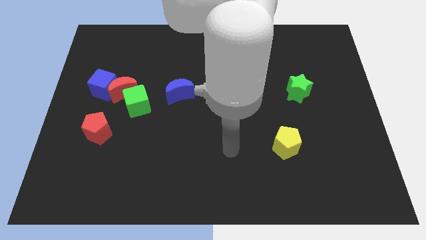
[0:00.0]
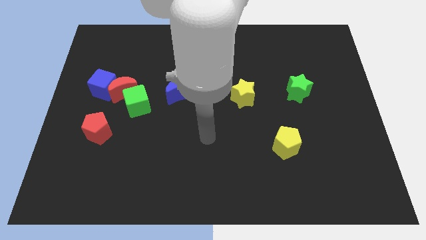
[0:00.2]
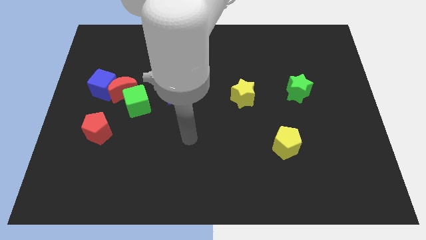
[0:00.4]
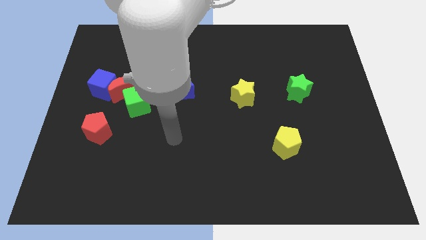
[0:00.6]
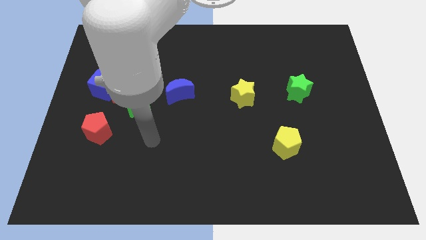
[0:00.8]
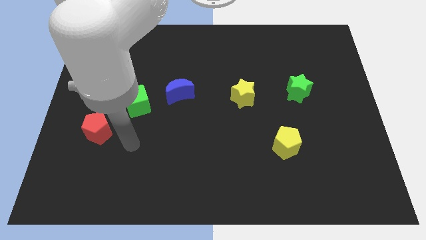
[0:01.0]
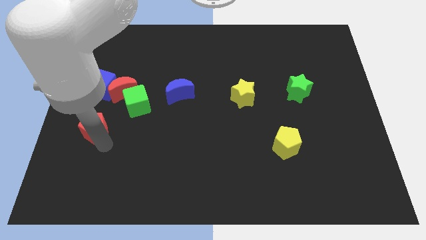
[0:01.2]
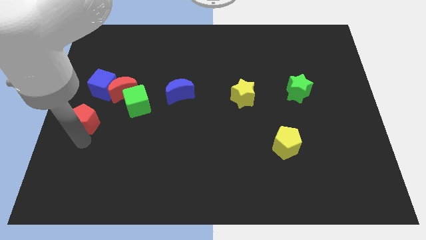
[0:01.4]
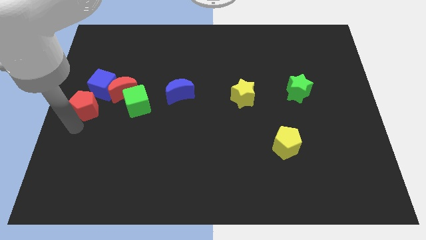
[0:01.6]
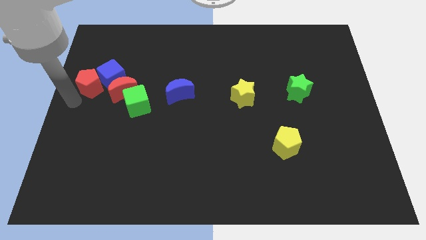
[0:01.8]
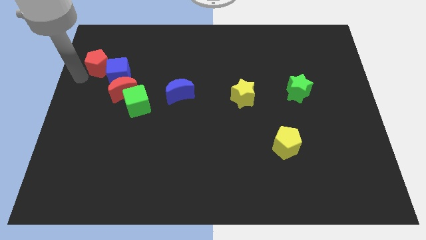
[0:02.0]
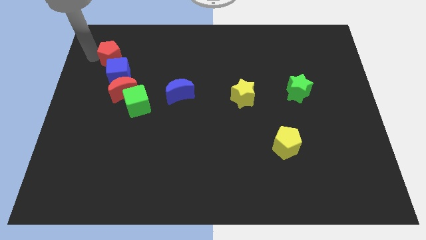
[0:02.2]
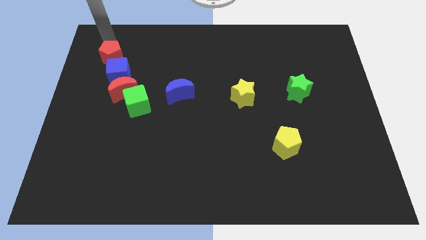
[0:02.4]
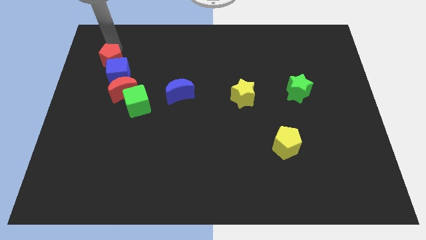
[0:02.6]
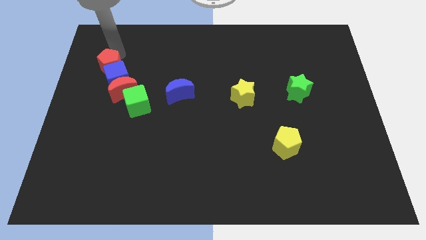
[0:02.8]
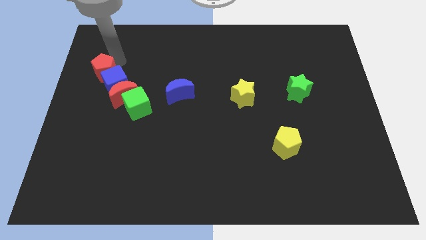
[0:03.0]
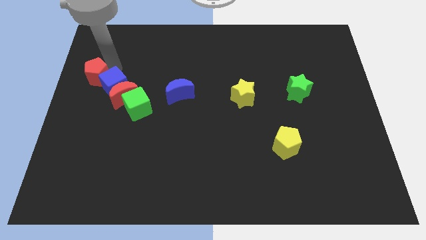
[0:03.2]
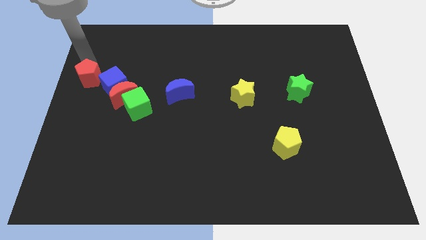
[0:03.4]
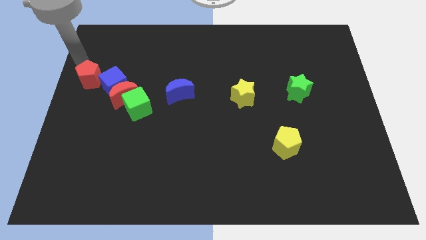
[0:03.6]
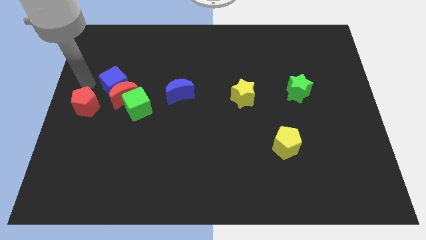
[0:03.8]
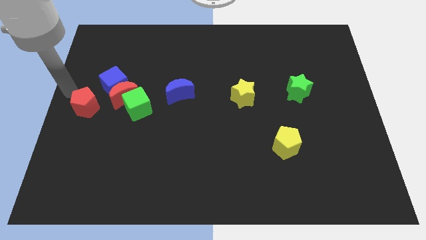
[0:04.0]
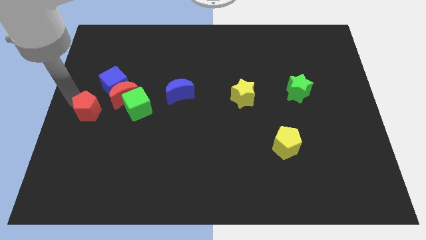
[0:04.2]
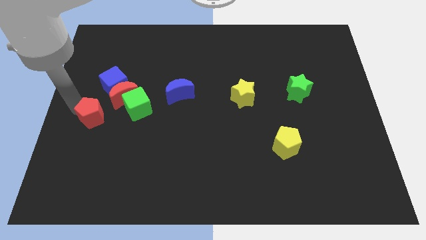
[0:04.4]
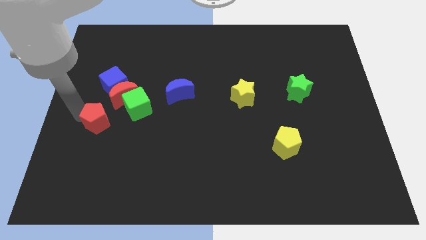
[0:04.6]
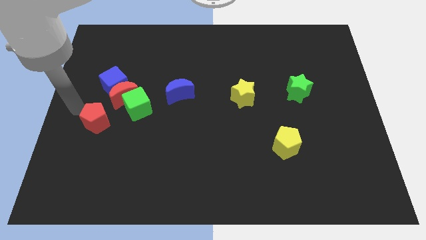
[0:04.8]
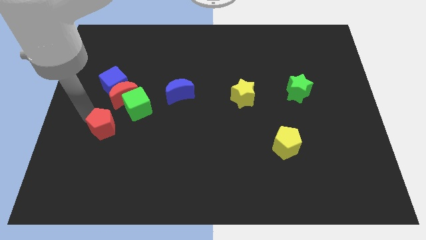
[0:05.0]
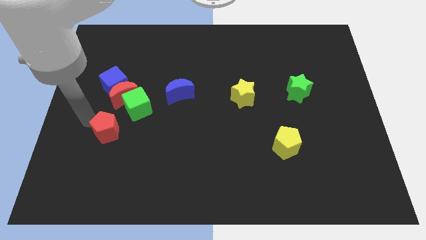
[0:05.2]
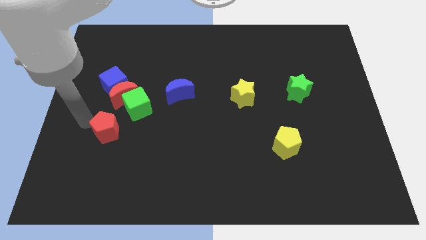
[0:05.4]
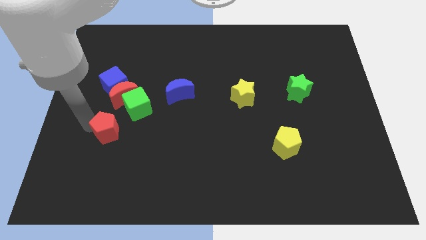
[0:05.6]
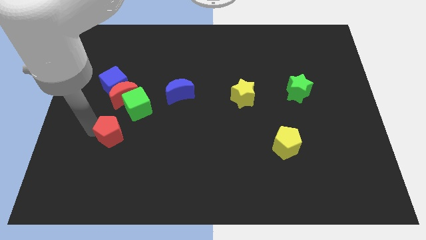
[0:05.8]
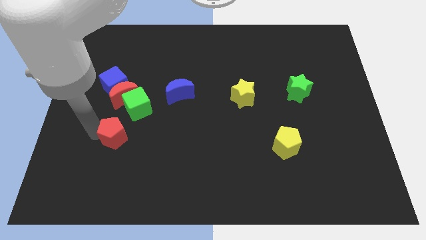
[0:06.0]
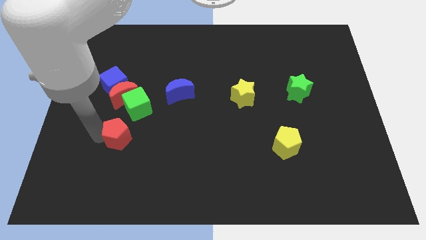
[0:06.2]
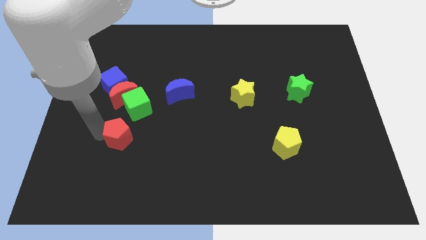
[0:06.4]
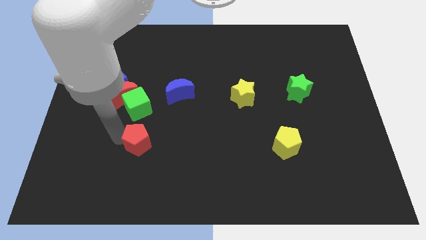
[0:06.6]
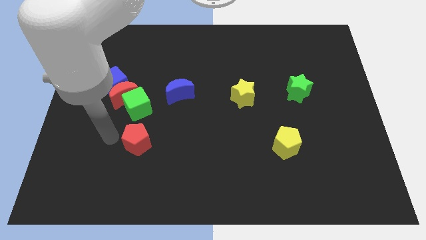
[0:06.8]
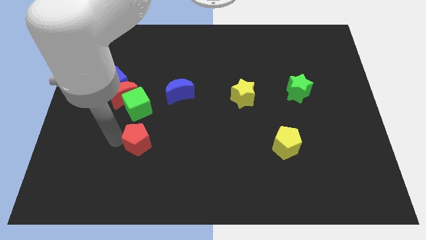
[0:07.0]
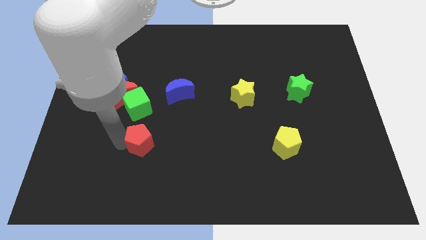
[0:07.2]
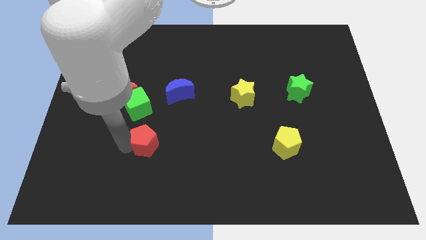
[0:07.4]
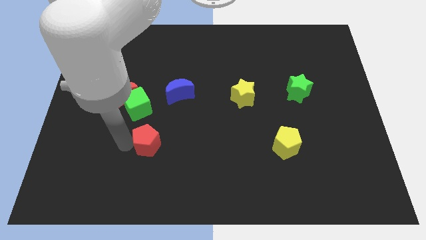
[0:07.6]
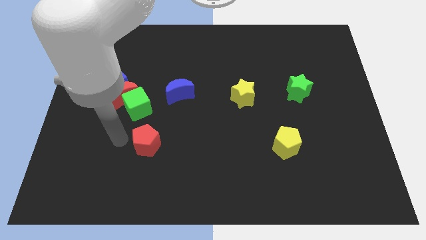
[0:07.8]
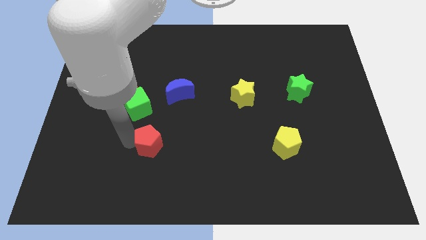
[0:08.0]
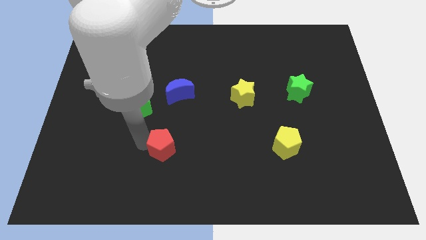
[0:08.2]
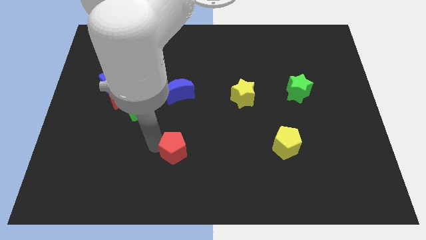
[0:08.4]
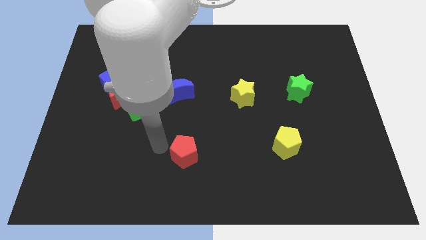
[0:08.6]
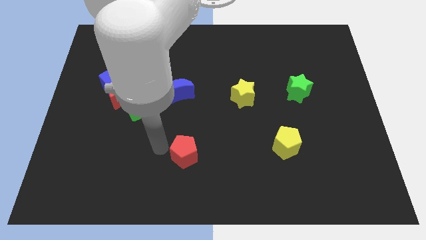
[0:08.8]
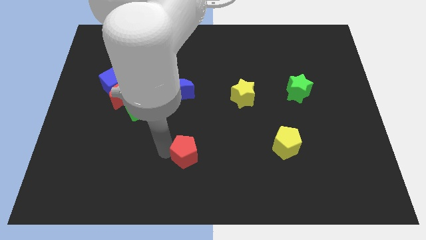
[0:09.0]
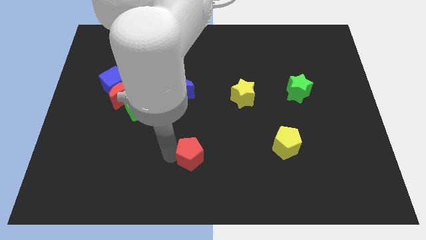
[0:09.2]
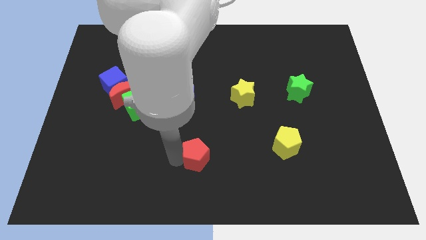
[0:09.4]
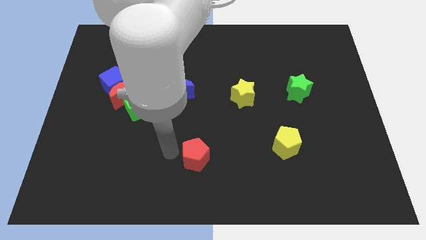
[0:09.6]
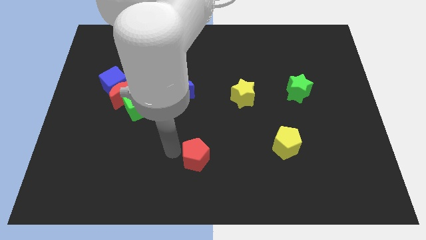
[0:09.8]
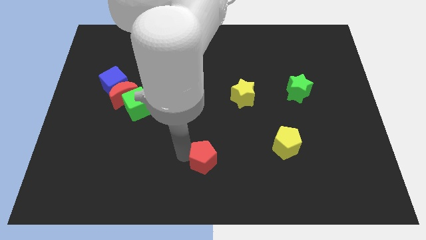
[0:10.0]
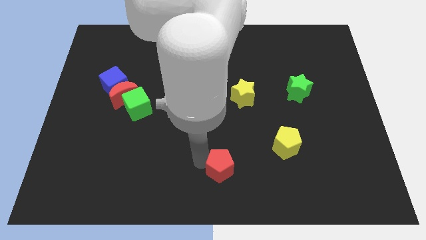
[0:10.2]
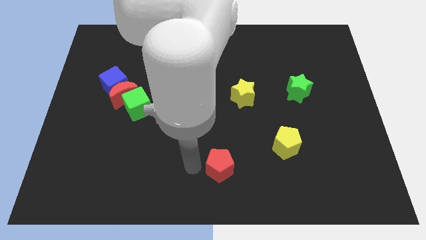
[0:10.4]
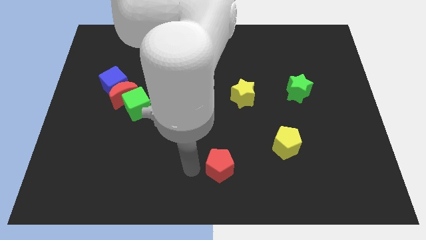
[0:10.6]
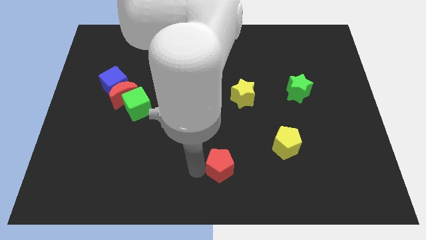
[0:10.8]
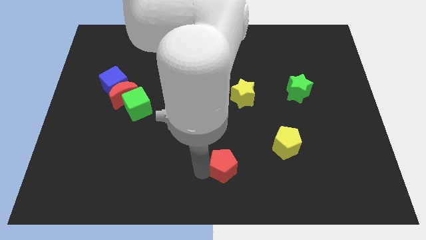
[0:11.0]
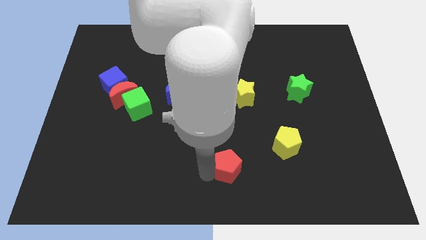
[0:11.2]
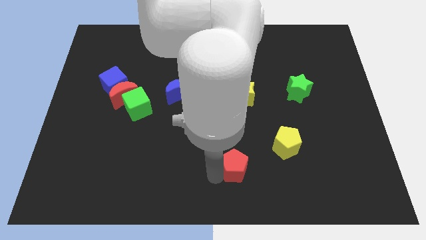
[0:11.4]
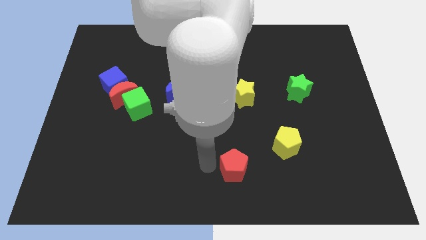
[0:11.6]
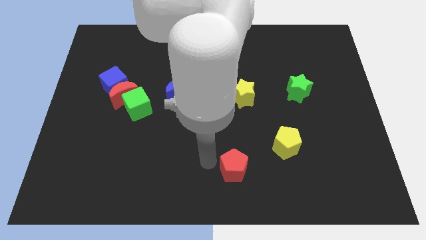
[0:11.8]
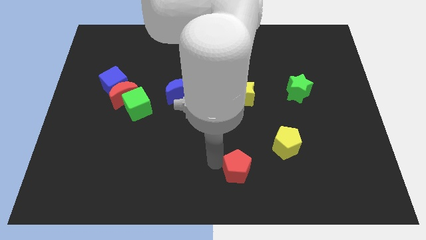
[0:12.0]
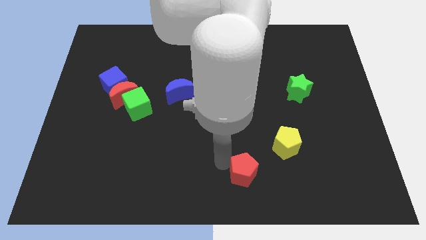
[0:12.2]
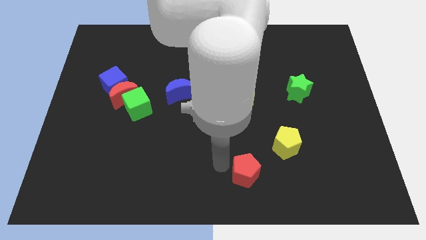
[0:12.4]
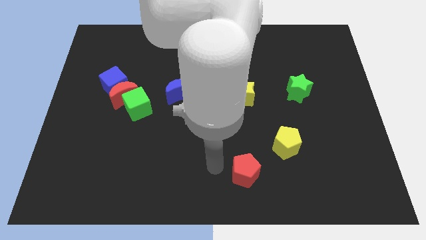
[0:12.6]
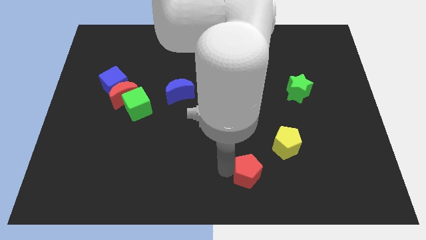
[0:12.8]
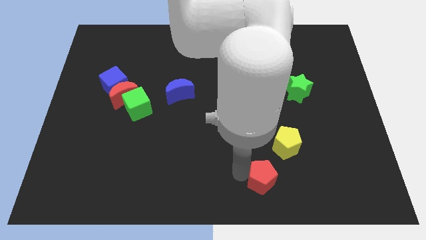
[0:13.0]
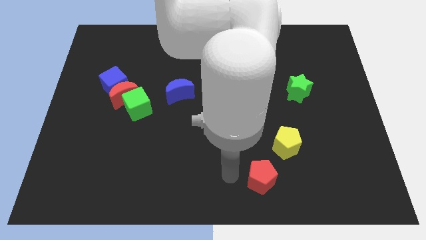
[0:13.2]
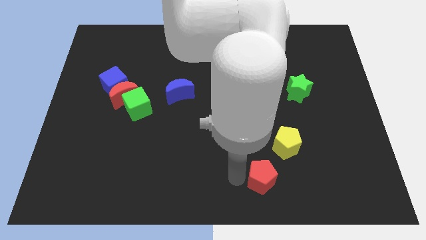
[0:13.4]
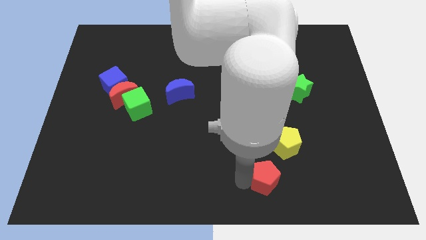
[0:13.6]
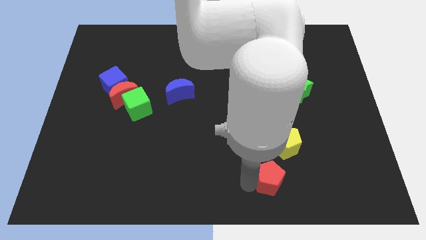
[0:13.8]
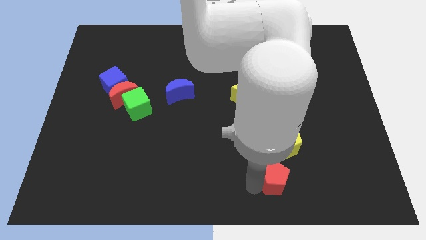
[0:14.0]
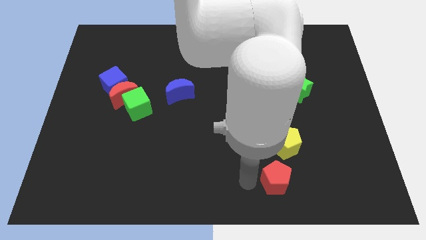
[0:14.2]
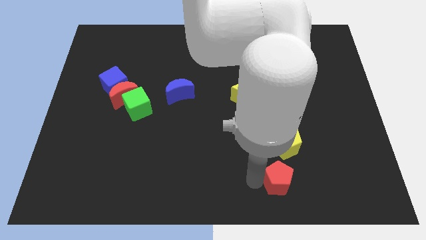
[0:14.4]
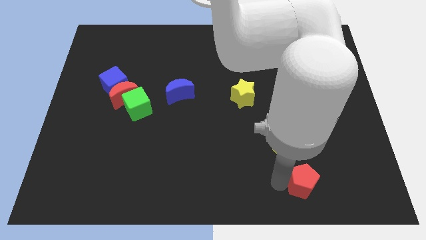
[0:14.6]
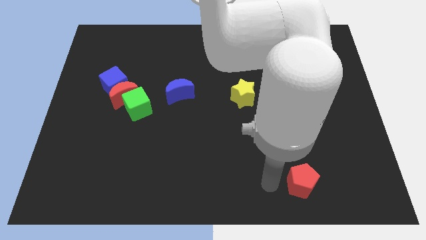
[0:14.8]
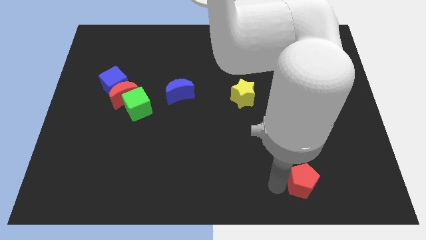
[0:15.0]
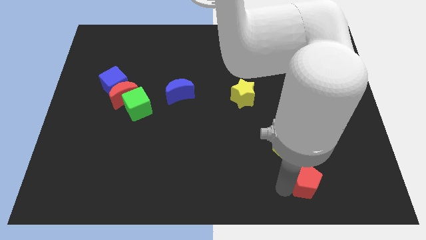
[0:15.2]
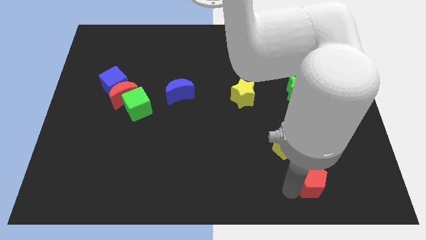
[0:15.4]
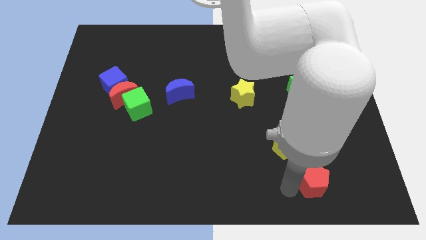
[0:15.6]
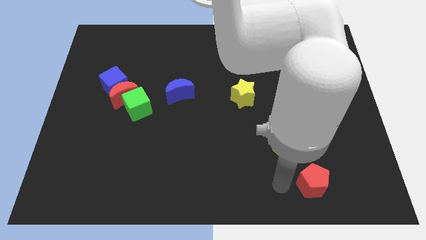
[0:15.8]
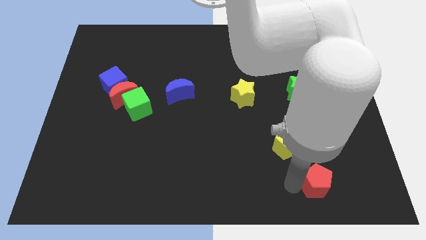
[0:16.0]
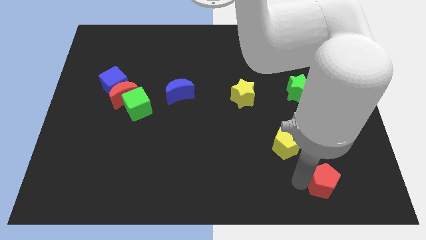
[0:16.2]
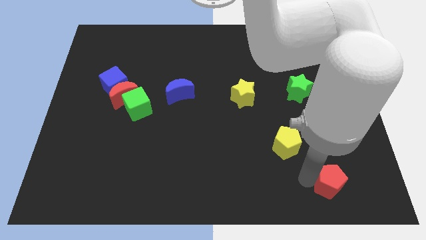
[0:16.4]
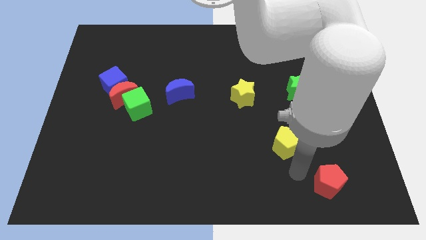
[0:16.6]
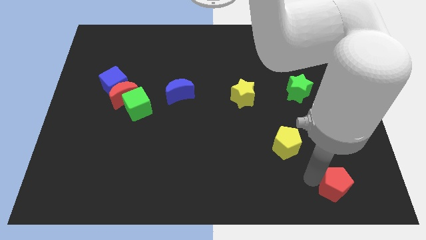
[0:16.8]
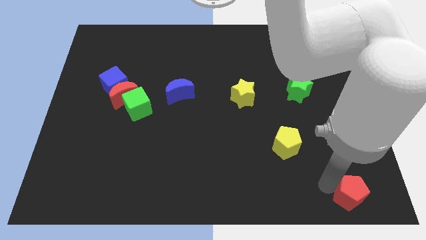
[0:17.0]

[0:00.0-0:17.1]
push the red pentagon to the bottom right corner
